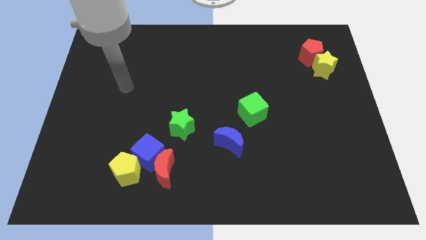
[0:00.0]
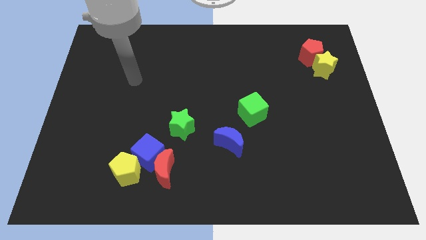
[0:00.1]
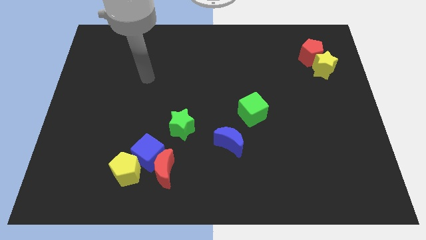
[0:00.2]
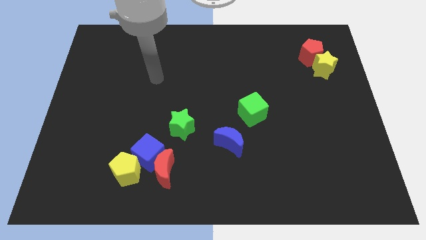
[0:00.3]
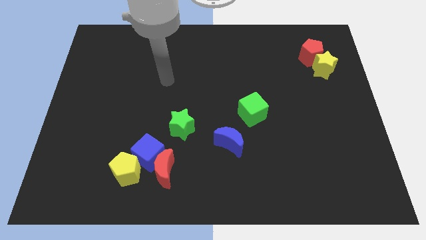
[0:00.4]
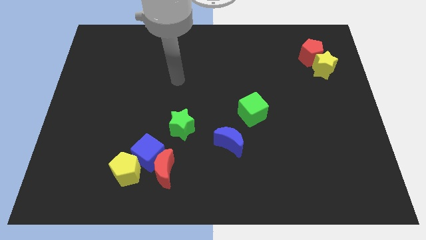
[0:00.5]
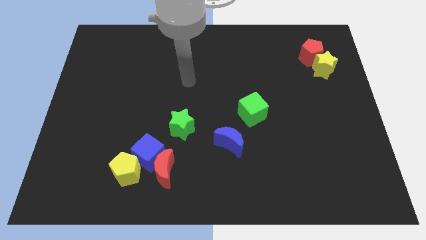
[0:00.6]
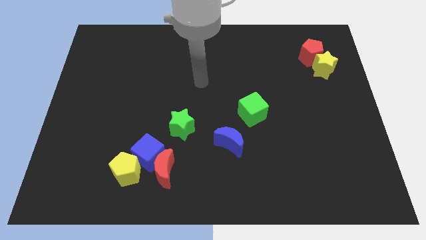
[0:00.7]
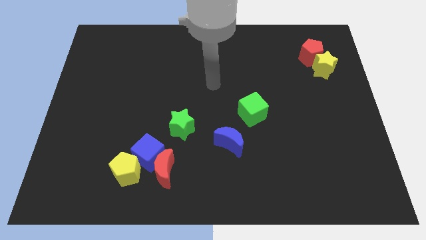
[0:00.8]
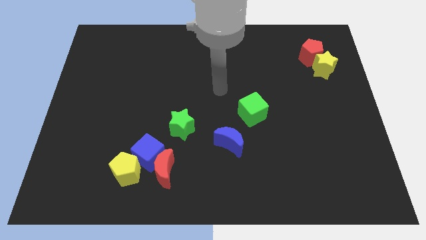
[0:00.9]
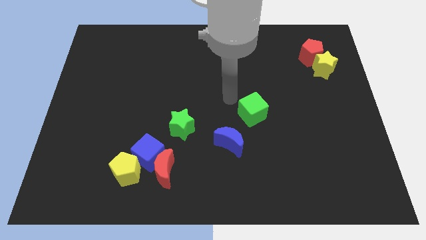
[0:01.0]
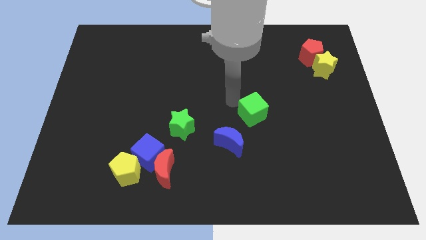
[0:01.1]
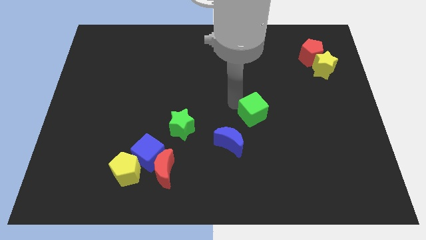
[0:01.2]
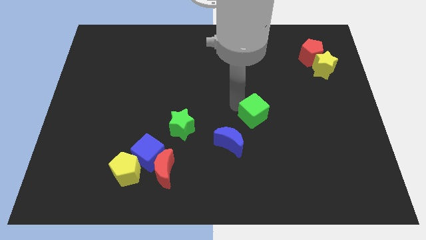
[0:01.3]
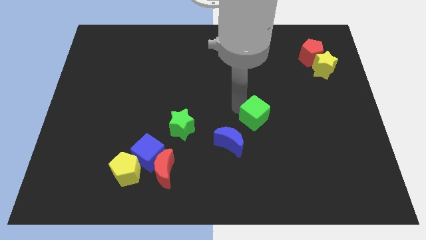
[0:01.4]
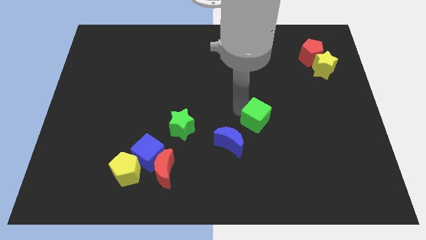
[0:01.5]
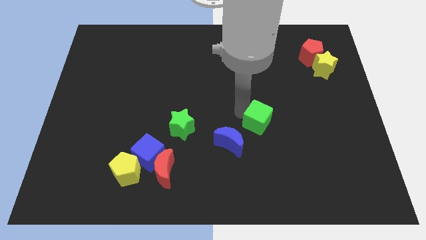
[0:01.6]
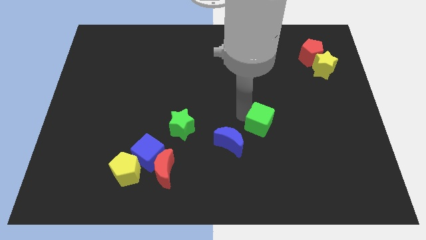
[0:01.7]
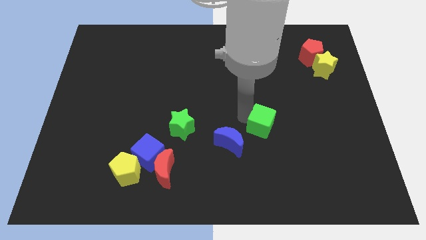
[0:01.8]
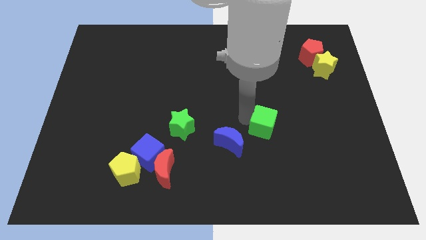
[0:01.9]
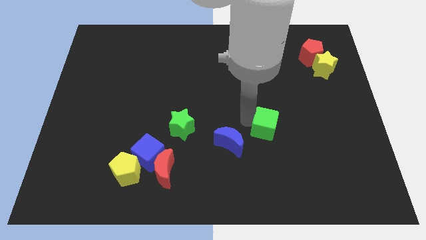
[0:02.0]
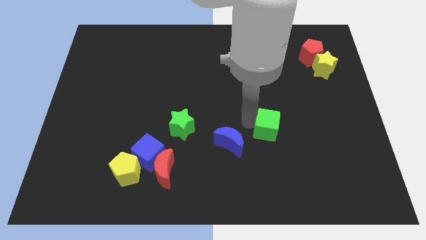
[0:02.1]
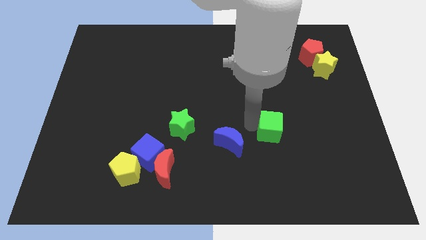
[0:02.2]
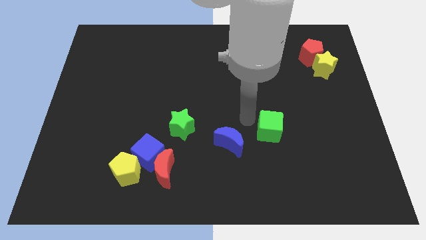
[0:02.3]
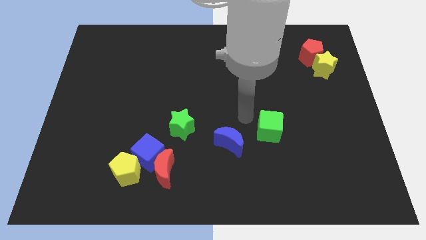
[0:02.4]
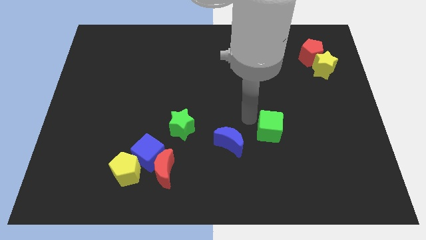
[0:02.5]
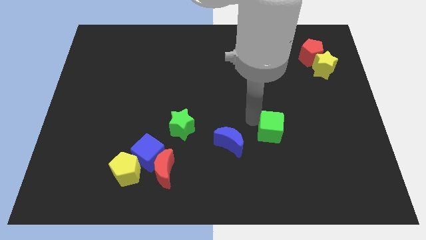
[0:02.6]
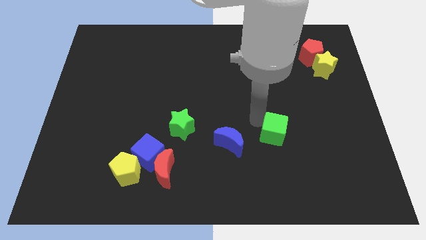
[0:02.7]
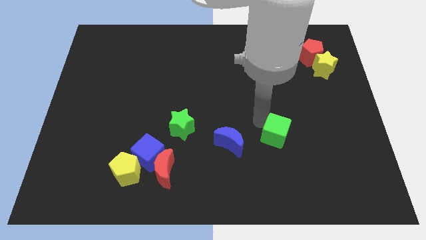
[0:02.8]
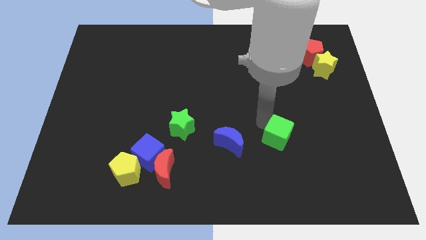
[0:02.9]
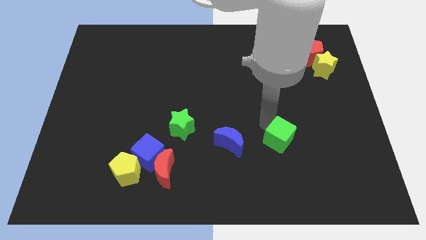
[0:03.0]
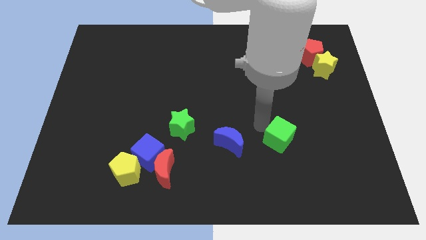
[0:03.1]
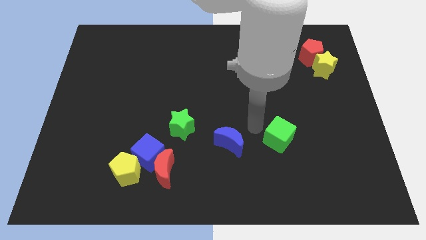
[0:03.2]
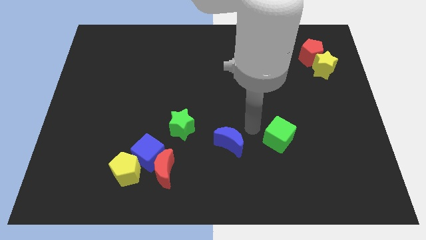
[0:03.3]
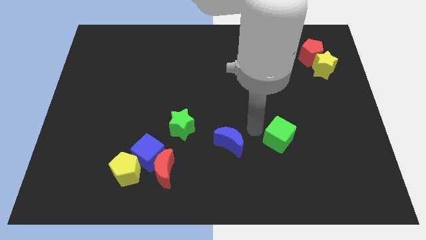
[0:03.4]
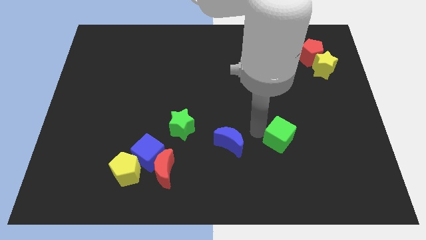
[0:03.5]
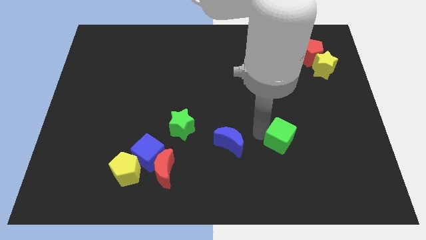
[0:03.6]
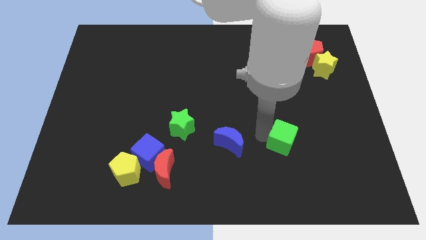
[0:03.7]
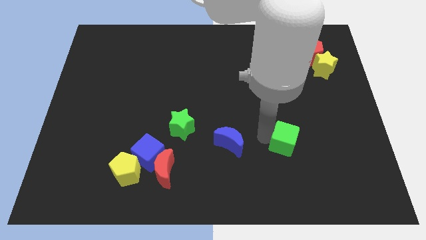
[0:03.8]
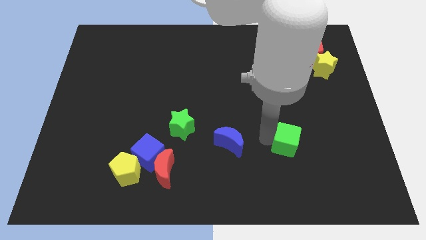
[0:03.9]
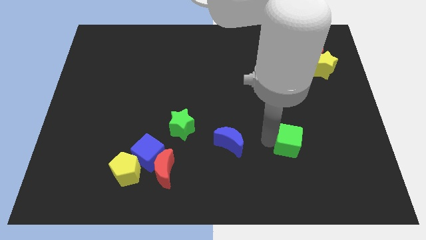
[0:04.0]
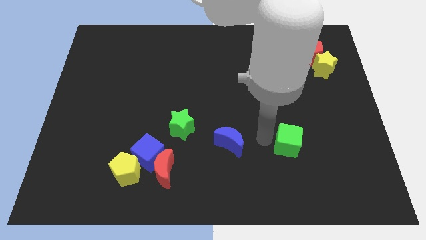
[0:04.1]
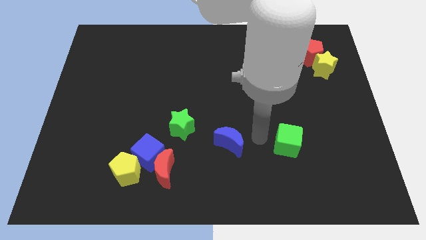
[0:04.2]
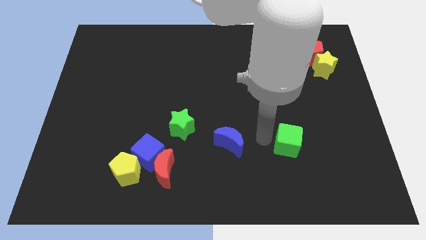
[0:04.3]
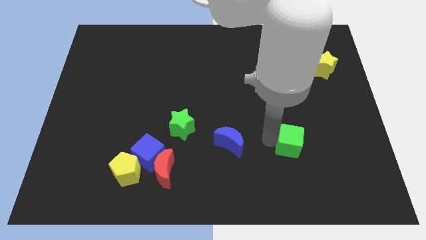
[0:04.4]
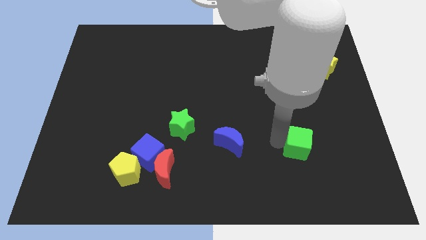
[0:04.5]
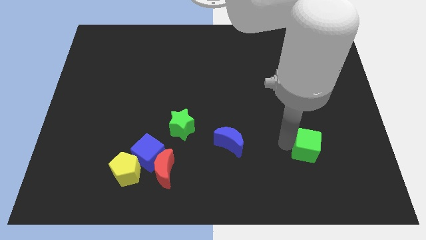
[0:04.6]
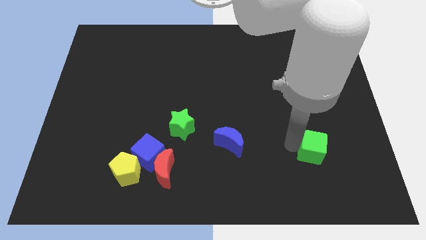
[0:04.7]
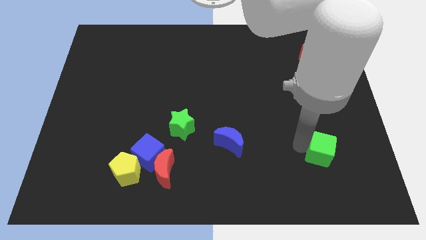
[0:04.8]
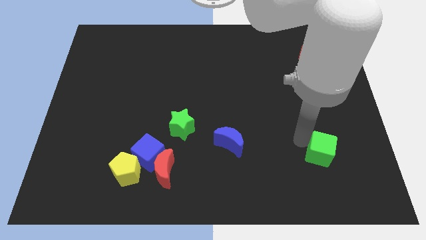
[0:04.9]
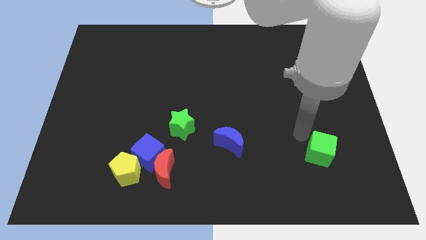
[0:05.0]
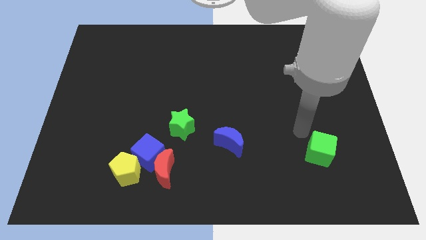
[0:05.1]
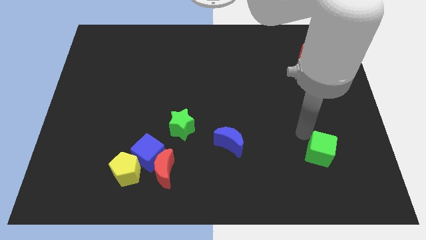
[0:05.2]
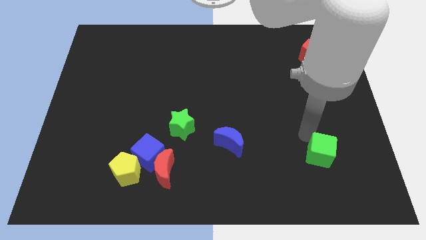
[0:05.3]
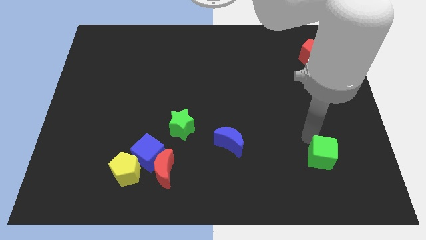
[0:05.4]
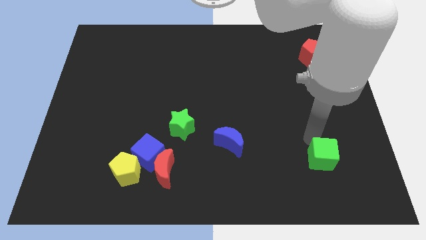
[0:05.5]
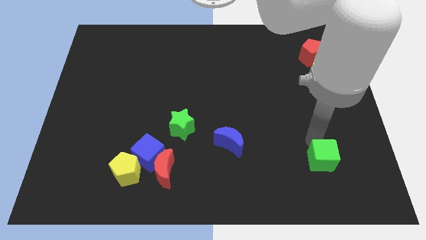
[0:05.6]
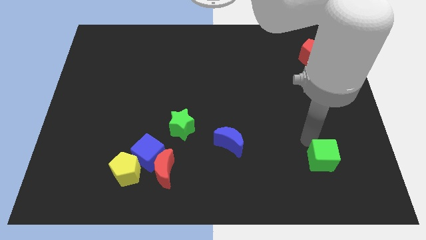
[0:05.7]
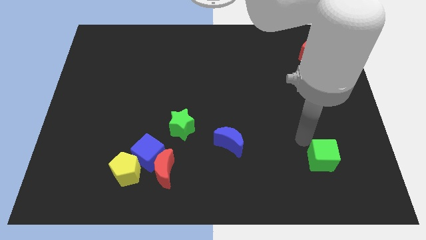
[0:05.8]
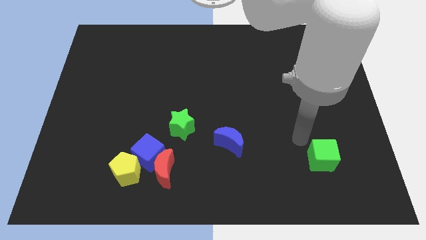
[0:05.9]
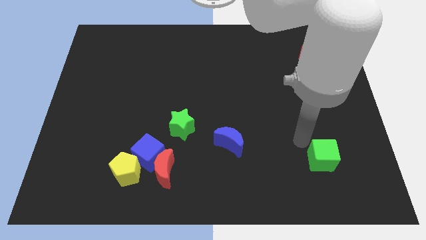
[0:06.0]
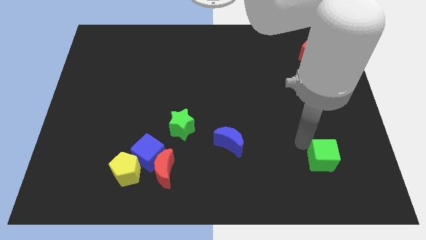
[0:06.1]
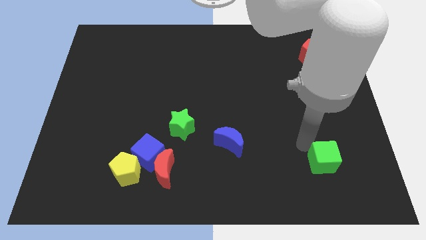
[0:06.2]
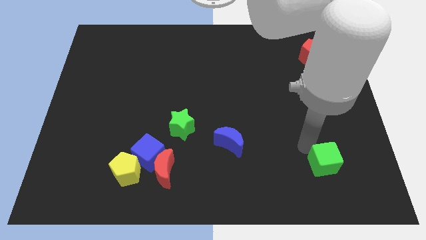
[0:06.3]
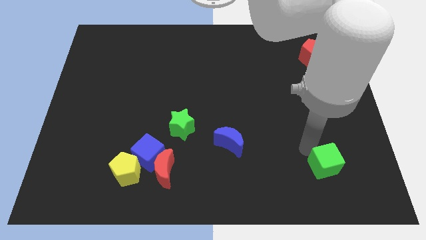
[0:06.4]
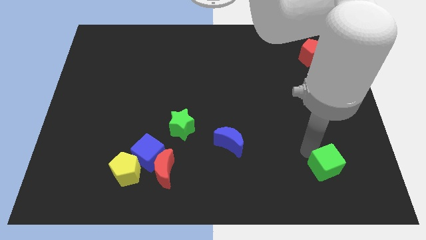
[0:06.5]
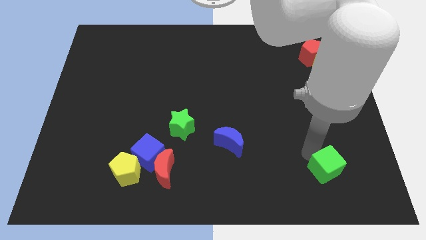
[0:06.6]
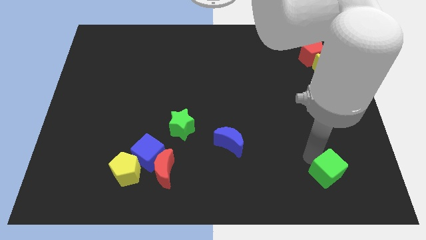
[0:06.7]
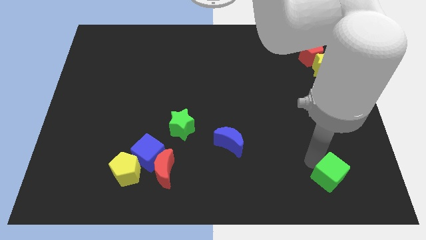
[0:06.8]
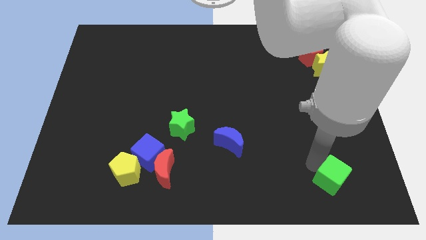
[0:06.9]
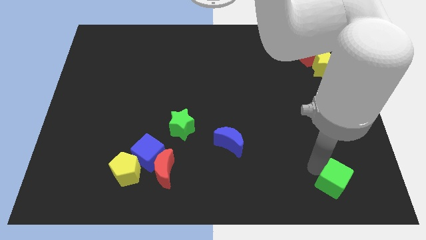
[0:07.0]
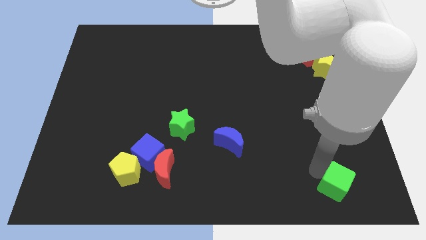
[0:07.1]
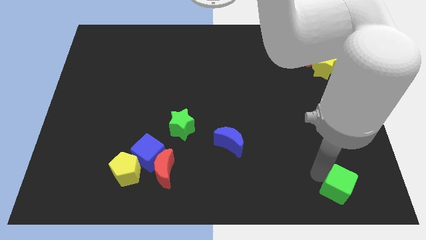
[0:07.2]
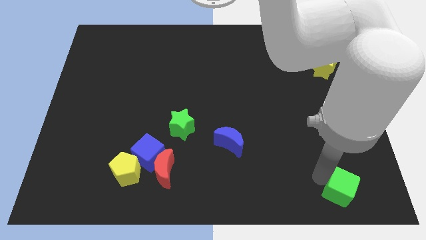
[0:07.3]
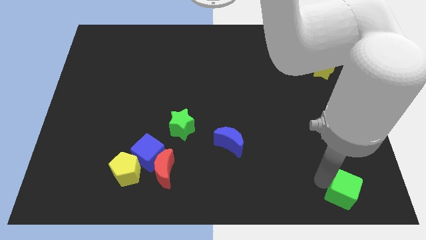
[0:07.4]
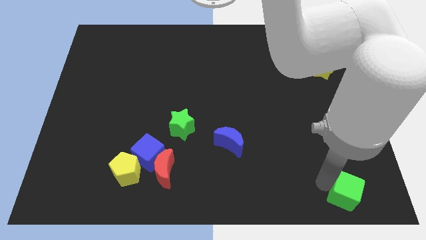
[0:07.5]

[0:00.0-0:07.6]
slide the green cube to the lower right corner
